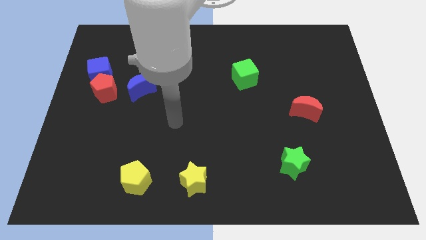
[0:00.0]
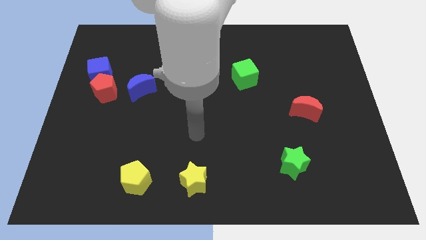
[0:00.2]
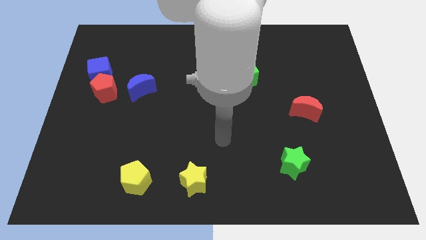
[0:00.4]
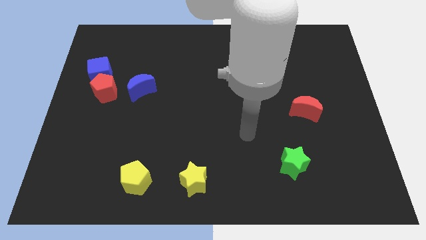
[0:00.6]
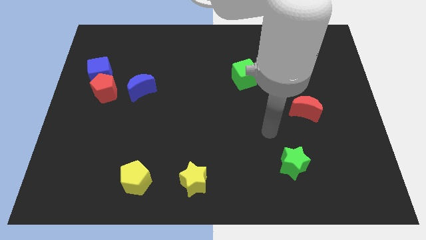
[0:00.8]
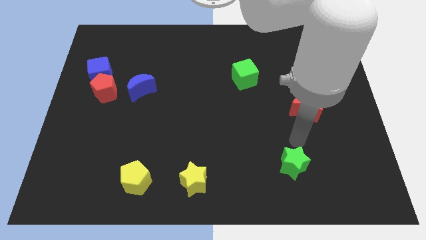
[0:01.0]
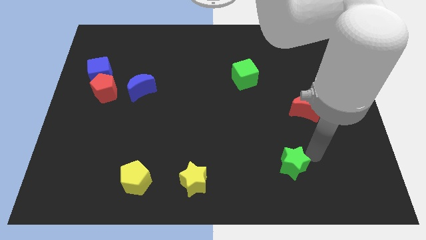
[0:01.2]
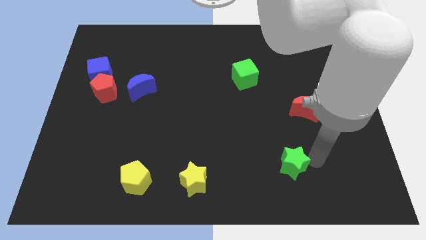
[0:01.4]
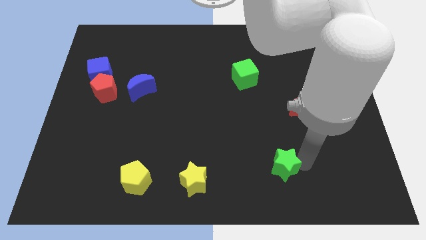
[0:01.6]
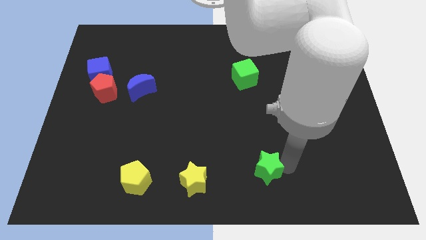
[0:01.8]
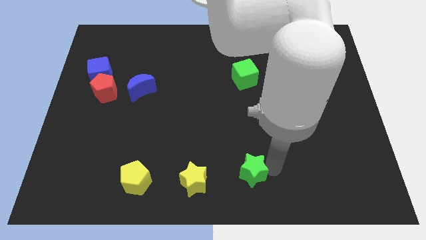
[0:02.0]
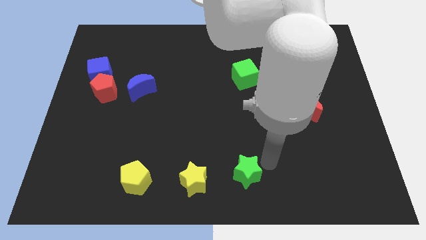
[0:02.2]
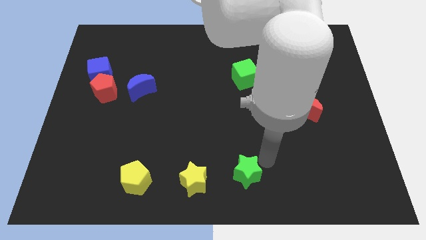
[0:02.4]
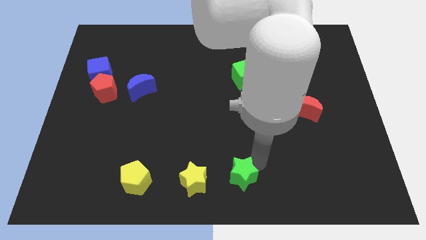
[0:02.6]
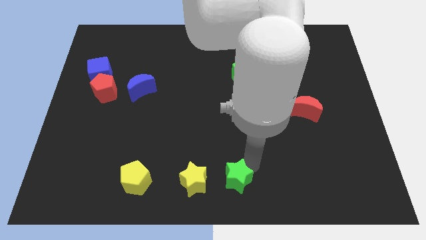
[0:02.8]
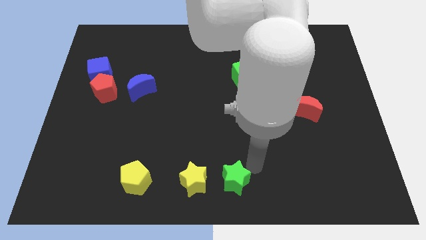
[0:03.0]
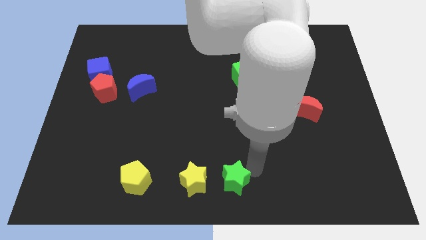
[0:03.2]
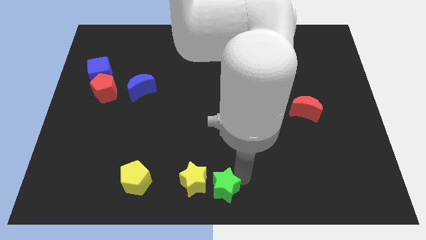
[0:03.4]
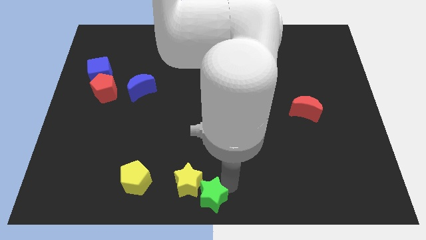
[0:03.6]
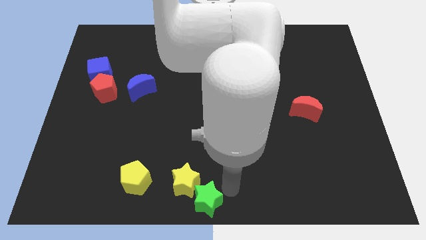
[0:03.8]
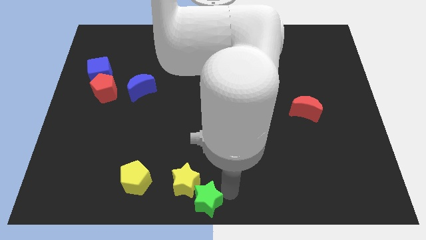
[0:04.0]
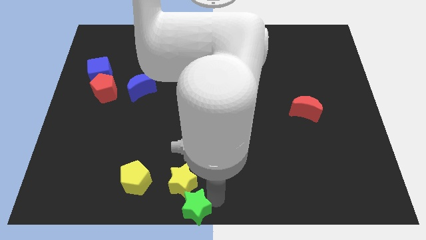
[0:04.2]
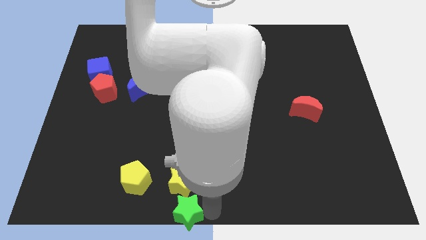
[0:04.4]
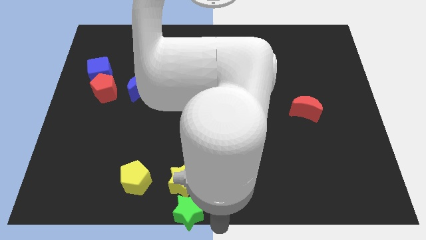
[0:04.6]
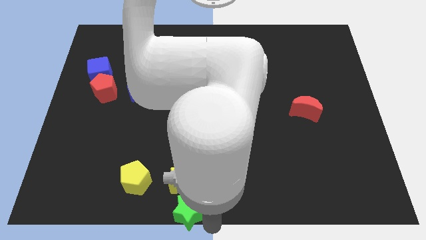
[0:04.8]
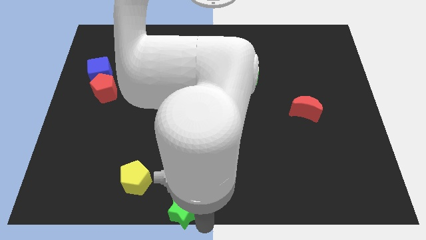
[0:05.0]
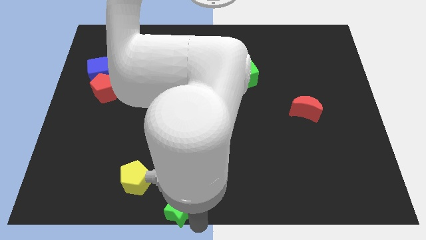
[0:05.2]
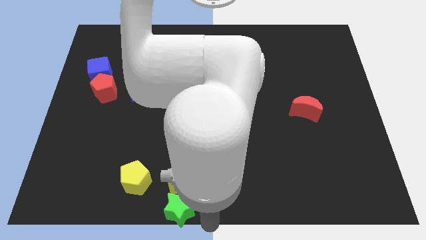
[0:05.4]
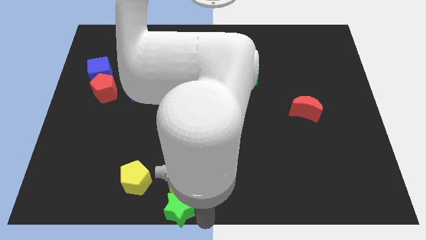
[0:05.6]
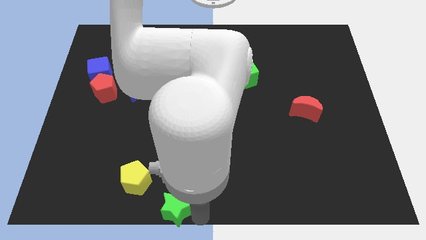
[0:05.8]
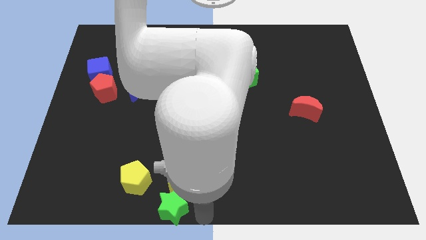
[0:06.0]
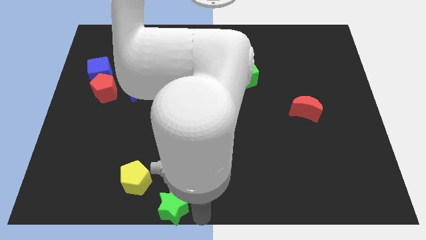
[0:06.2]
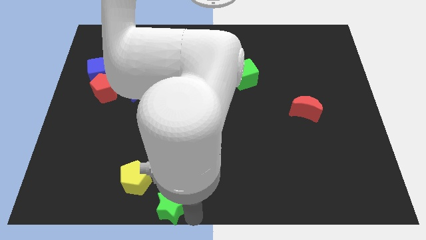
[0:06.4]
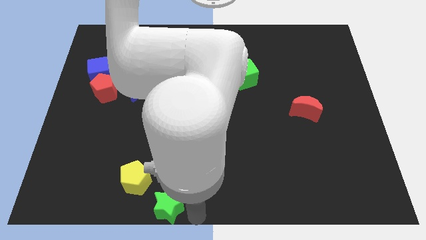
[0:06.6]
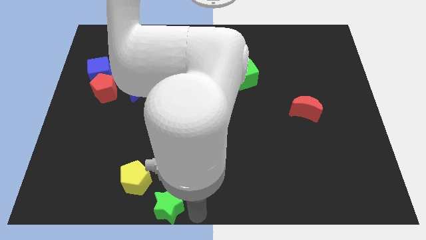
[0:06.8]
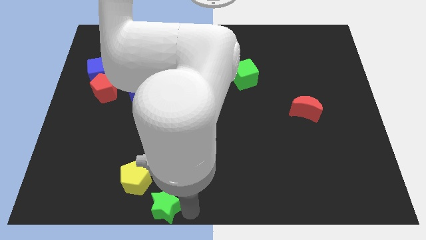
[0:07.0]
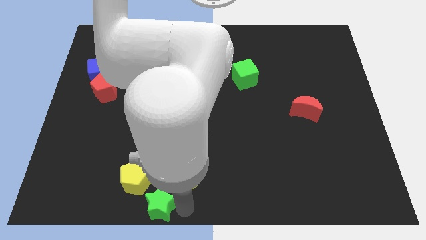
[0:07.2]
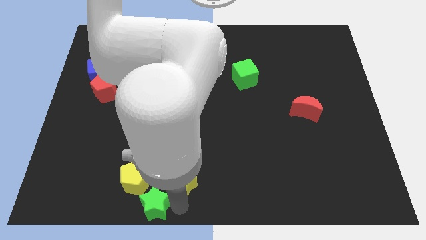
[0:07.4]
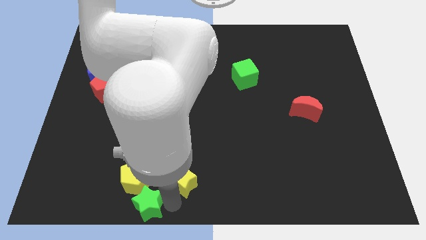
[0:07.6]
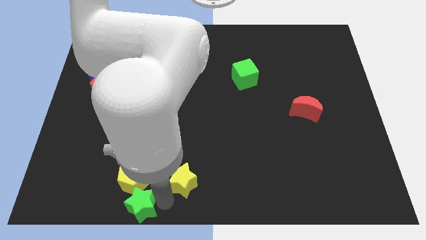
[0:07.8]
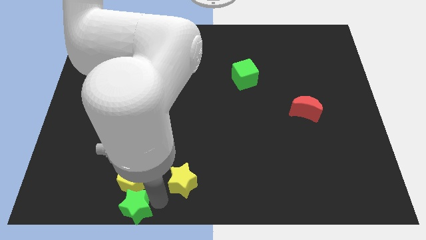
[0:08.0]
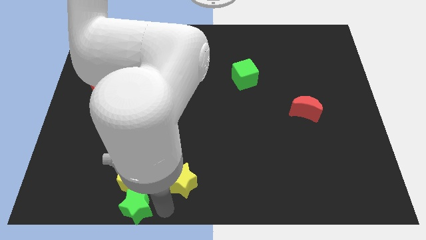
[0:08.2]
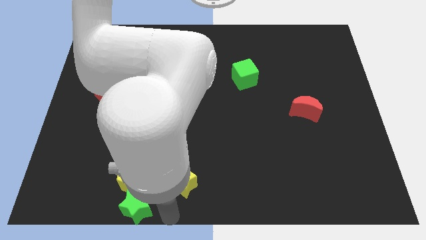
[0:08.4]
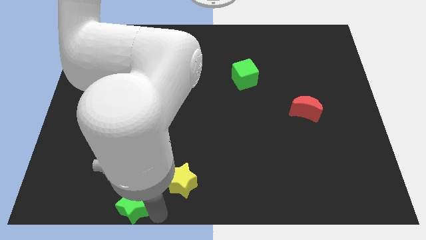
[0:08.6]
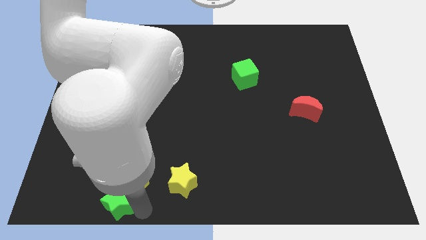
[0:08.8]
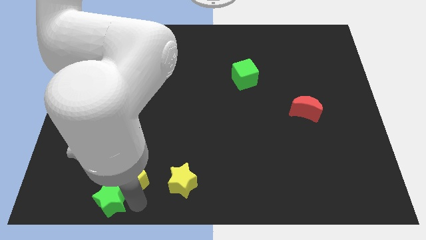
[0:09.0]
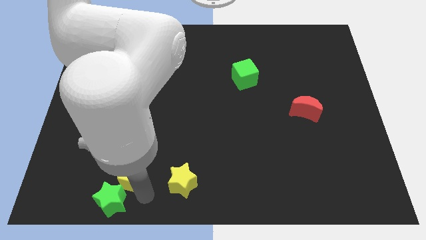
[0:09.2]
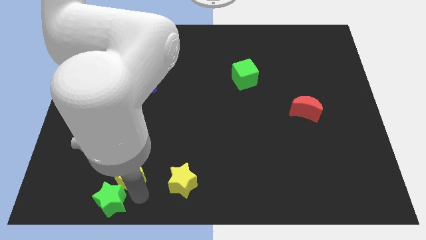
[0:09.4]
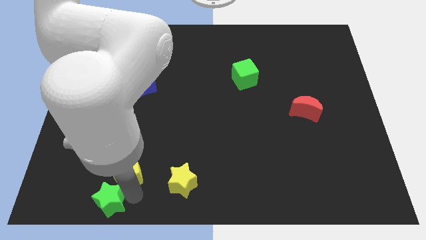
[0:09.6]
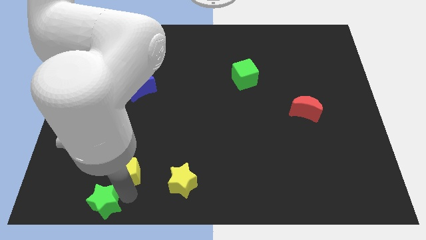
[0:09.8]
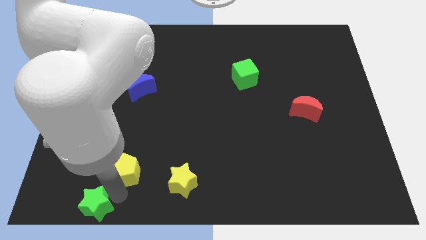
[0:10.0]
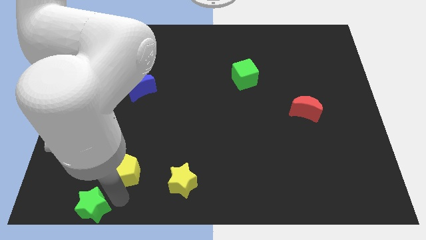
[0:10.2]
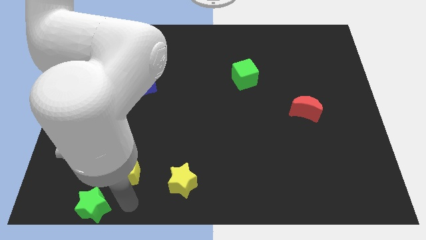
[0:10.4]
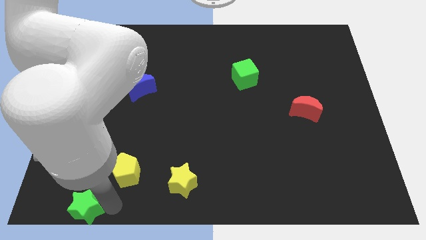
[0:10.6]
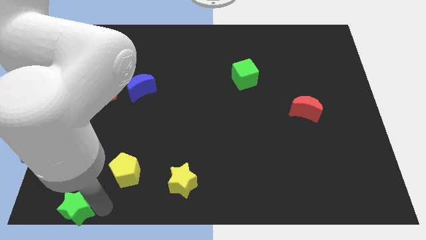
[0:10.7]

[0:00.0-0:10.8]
push the green star to the bottom left of the board

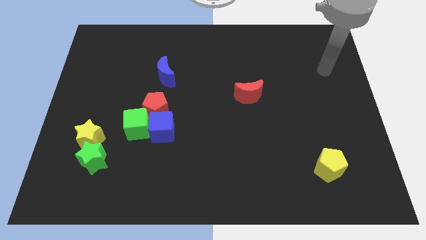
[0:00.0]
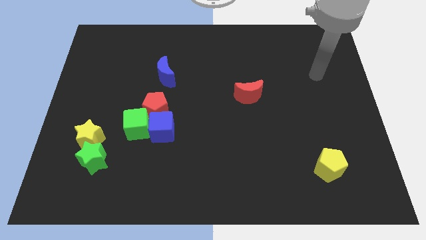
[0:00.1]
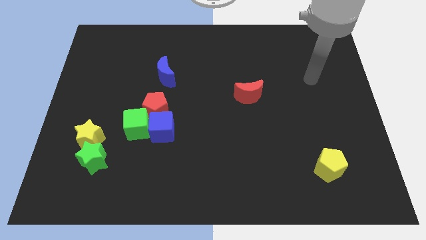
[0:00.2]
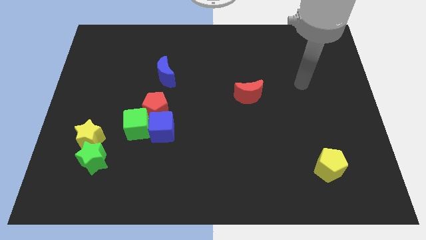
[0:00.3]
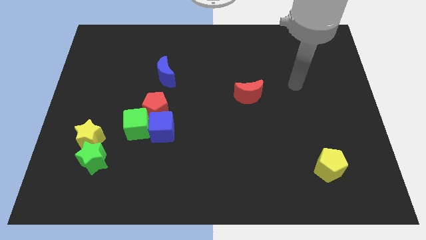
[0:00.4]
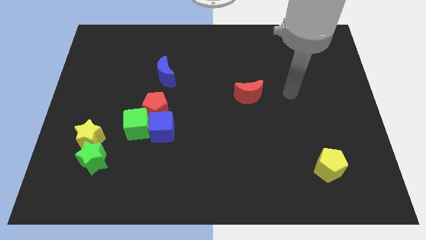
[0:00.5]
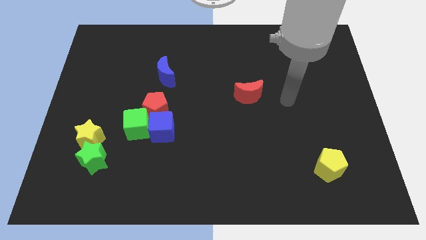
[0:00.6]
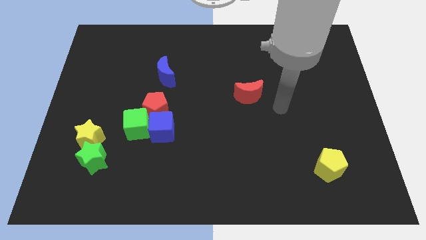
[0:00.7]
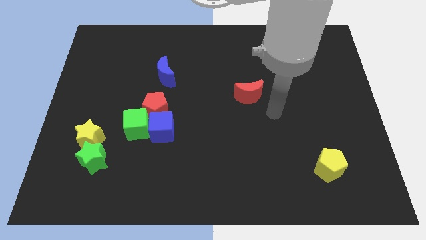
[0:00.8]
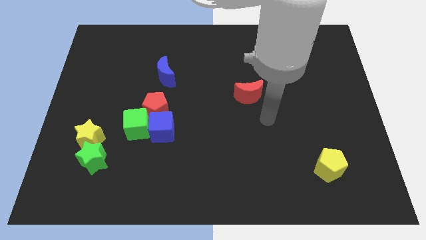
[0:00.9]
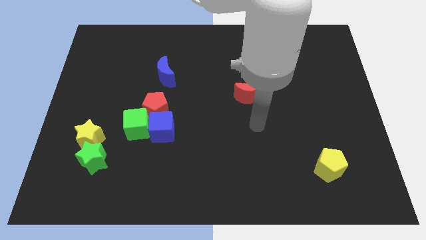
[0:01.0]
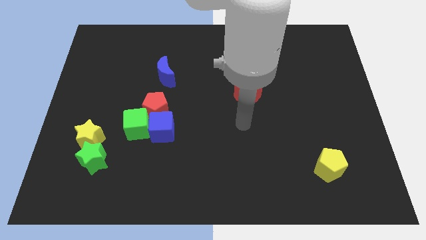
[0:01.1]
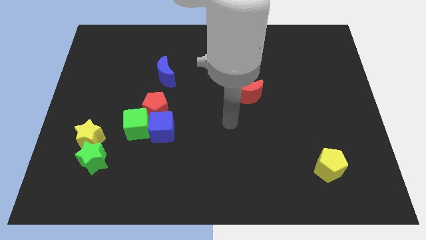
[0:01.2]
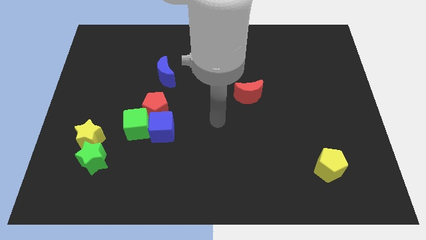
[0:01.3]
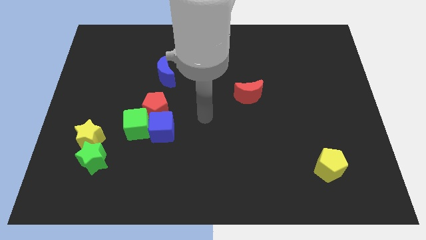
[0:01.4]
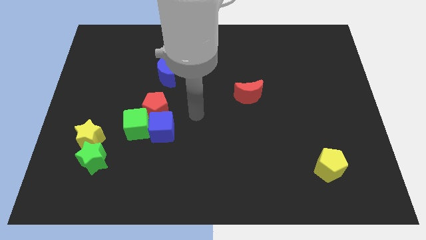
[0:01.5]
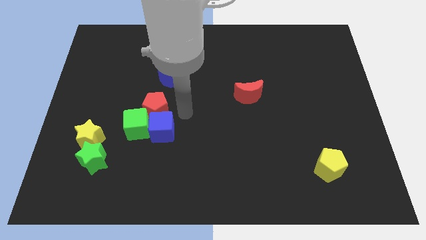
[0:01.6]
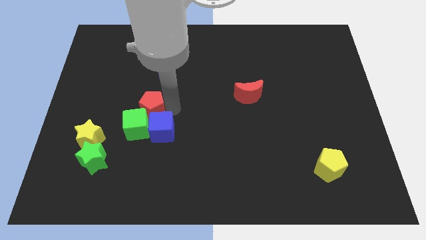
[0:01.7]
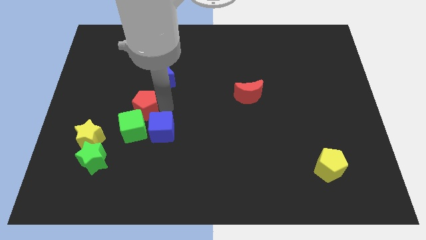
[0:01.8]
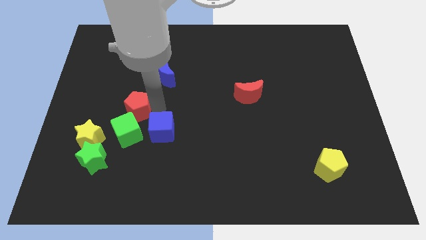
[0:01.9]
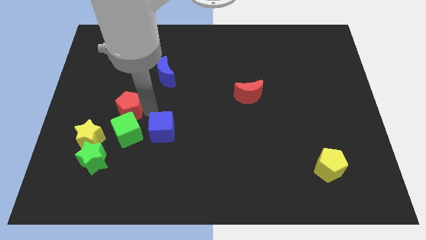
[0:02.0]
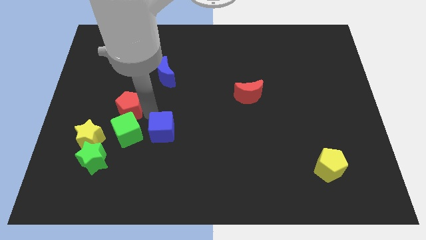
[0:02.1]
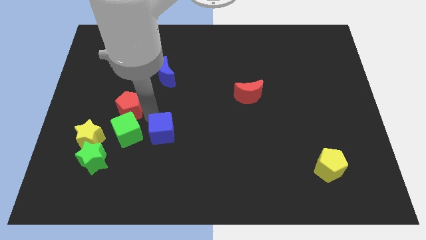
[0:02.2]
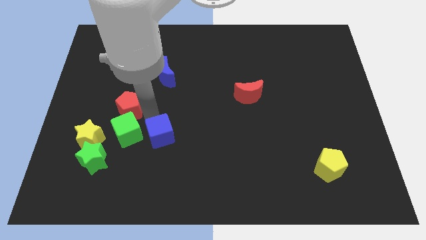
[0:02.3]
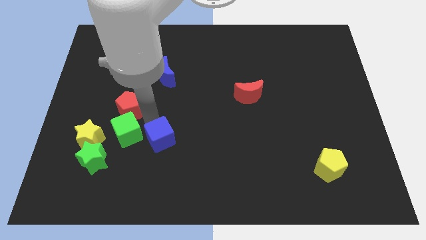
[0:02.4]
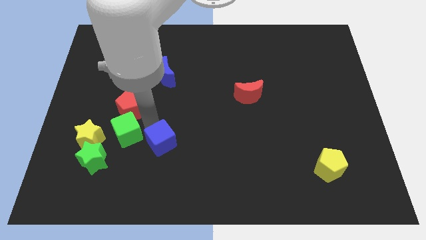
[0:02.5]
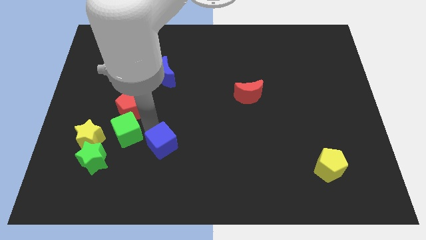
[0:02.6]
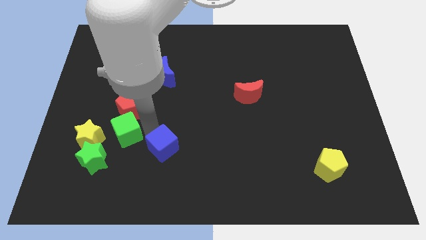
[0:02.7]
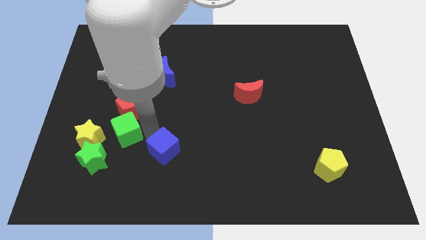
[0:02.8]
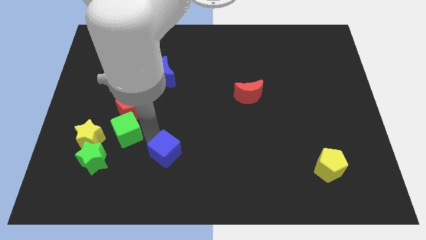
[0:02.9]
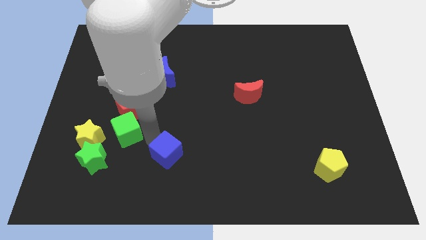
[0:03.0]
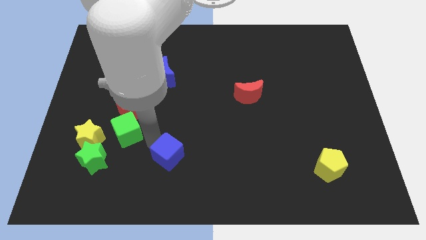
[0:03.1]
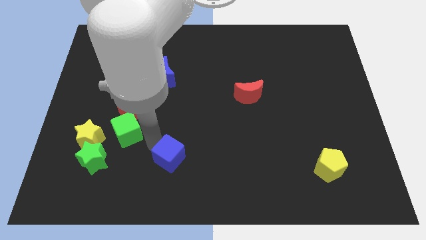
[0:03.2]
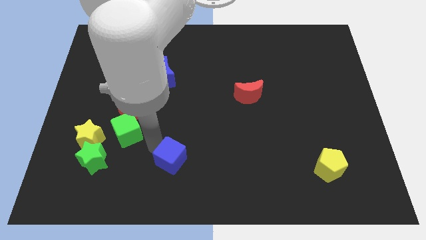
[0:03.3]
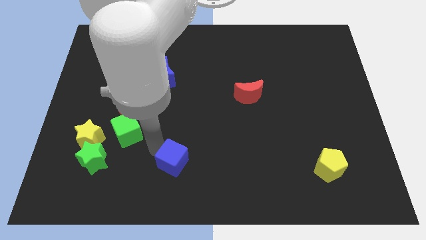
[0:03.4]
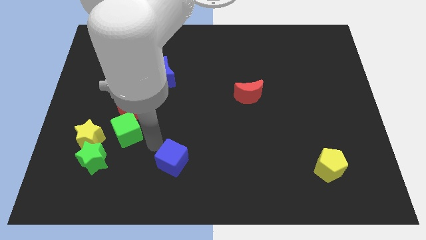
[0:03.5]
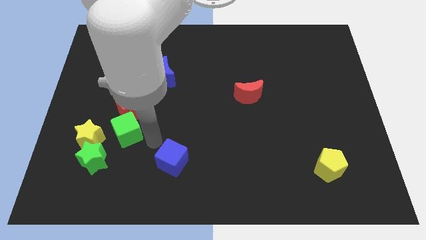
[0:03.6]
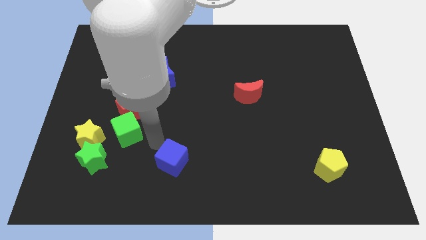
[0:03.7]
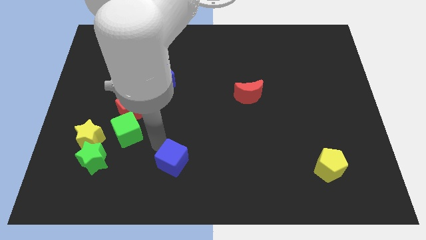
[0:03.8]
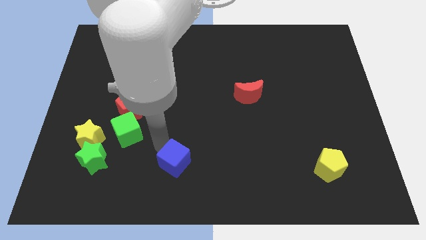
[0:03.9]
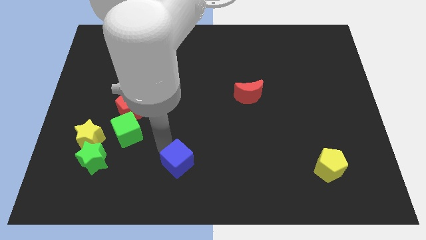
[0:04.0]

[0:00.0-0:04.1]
put the blue cube to the bottom side
